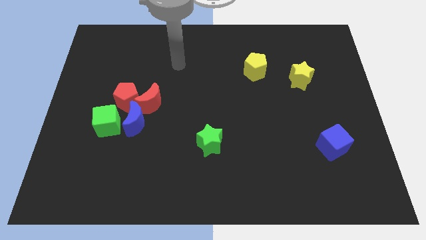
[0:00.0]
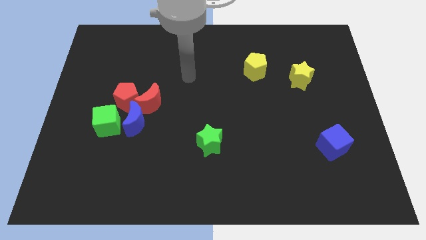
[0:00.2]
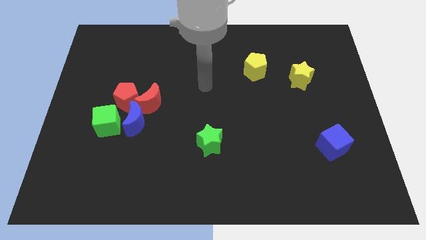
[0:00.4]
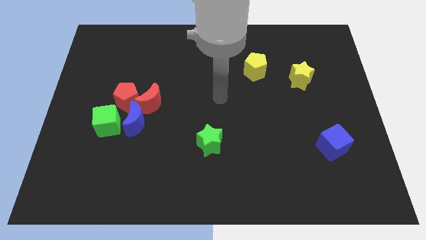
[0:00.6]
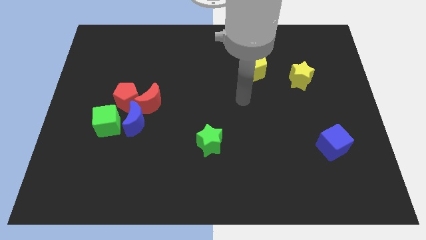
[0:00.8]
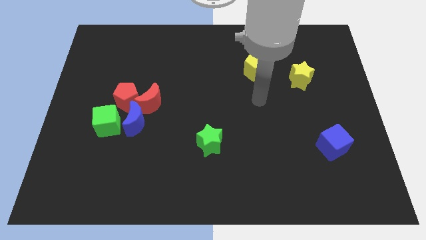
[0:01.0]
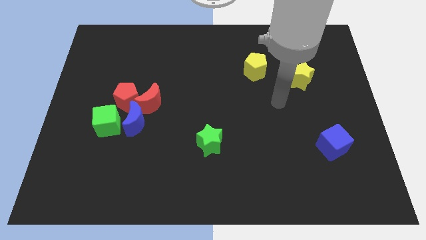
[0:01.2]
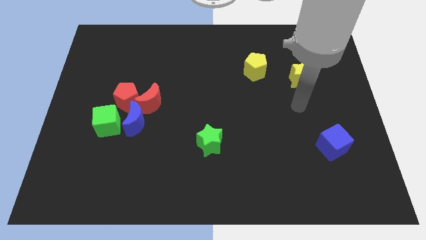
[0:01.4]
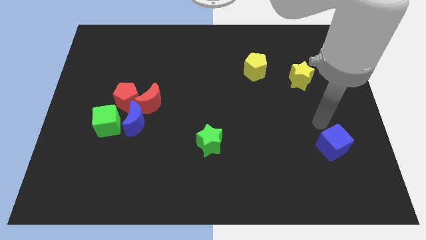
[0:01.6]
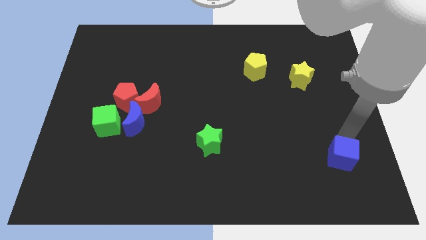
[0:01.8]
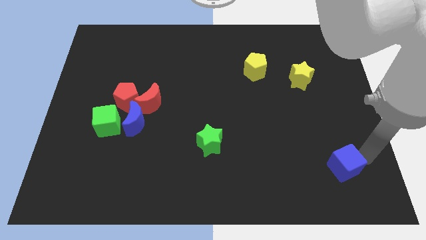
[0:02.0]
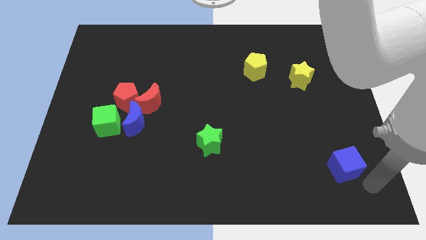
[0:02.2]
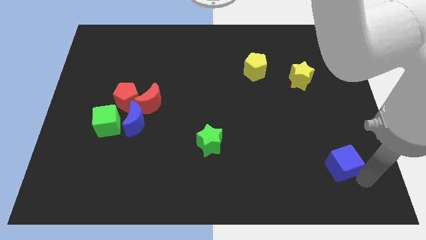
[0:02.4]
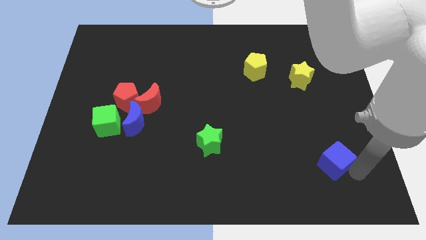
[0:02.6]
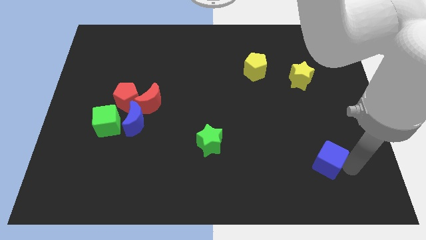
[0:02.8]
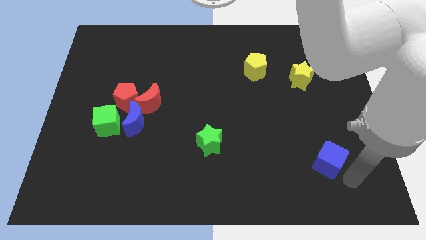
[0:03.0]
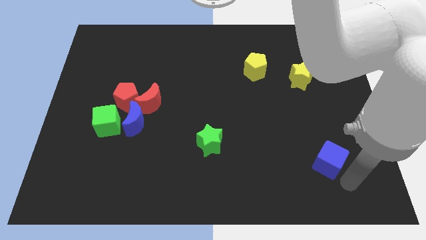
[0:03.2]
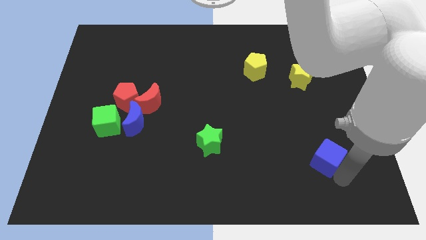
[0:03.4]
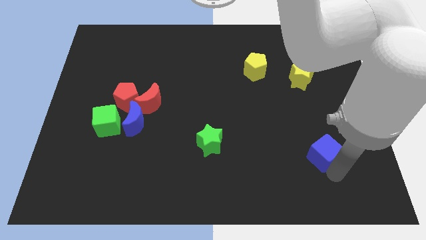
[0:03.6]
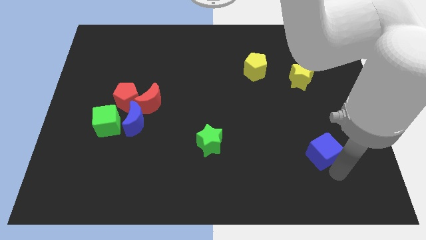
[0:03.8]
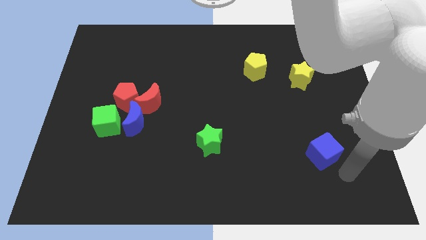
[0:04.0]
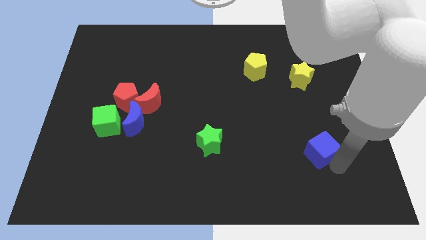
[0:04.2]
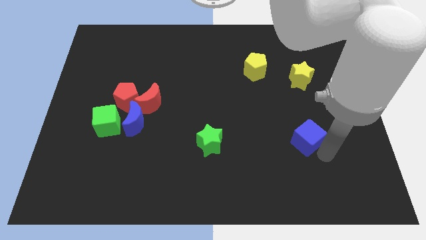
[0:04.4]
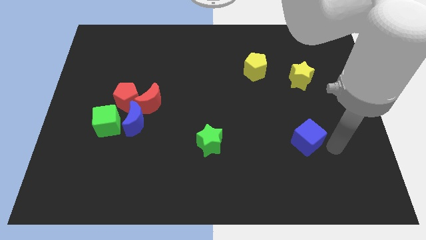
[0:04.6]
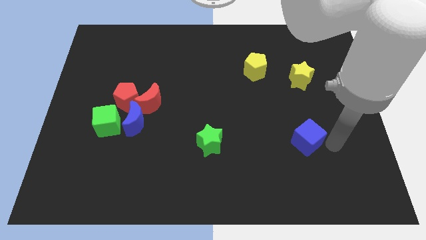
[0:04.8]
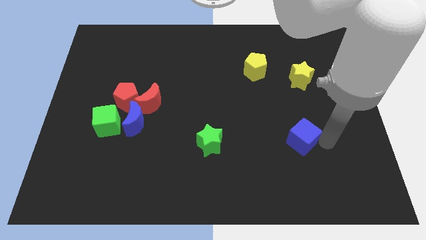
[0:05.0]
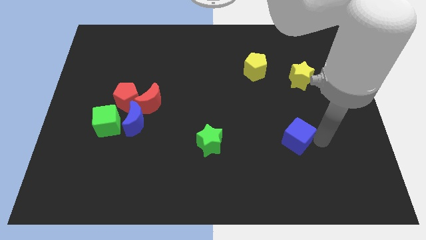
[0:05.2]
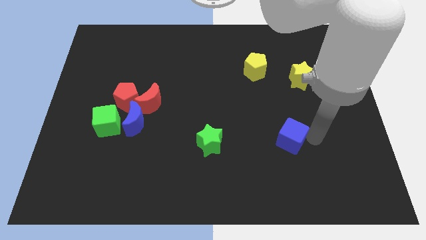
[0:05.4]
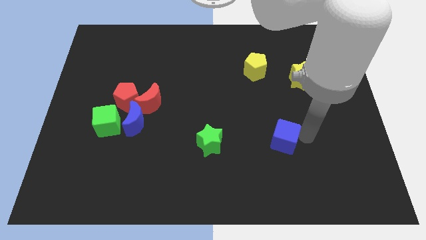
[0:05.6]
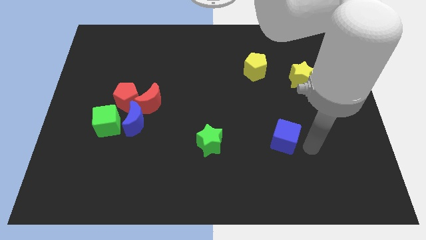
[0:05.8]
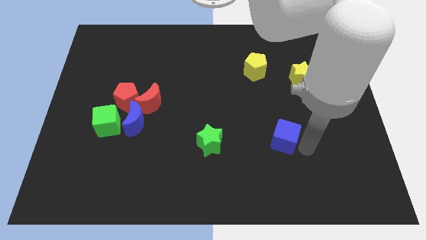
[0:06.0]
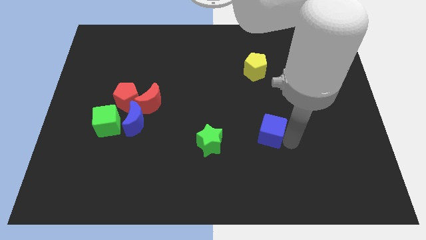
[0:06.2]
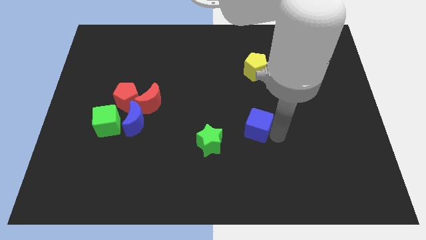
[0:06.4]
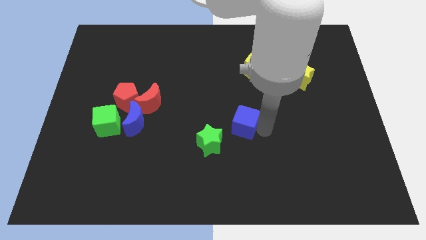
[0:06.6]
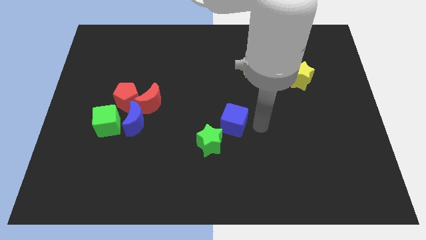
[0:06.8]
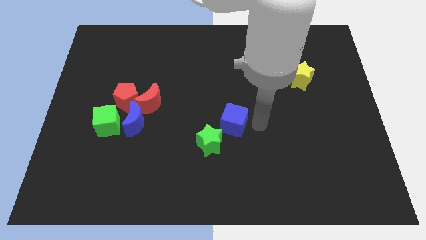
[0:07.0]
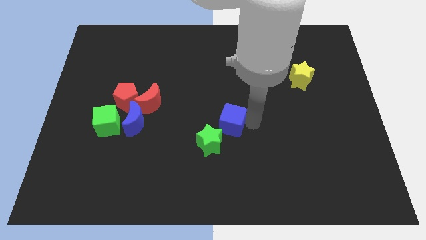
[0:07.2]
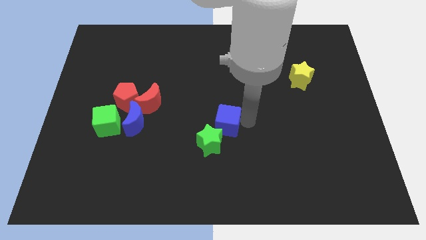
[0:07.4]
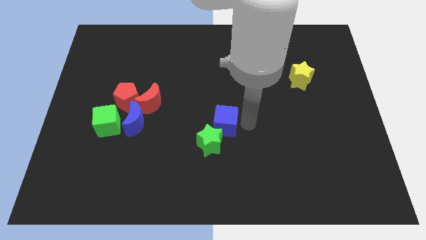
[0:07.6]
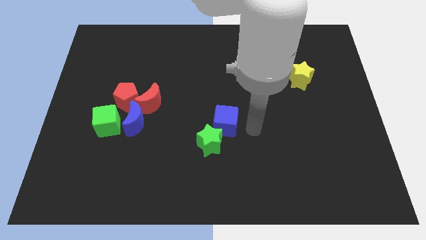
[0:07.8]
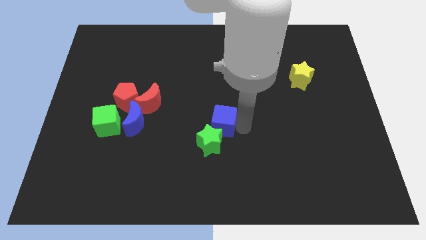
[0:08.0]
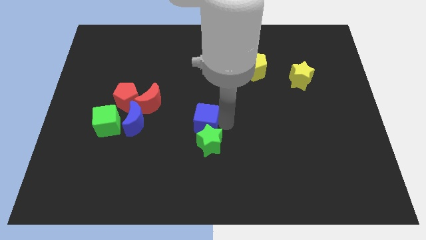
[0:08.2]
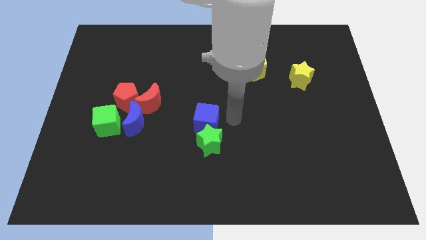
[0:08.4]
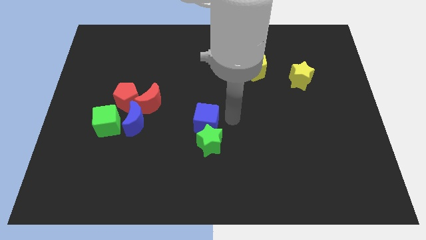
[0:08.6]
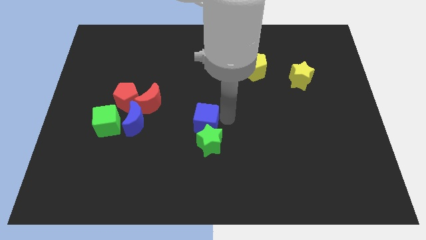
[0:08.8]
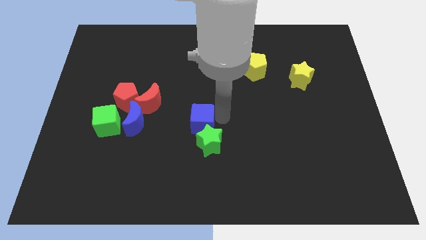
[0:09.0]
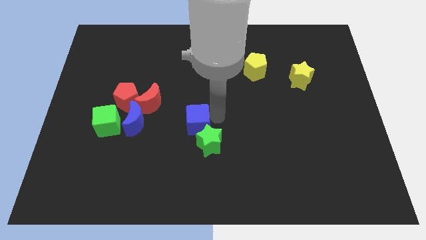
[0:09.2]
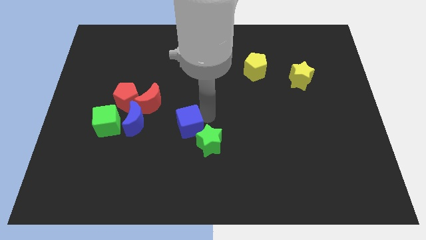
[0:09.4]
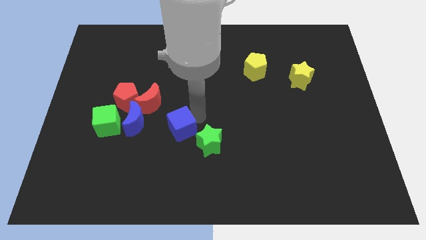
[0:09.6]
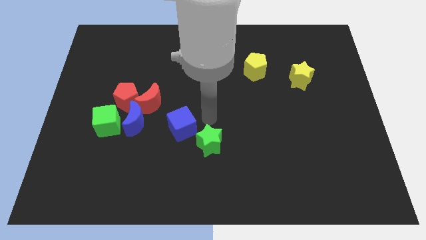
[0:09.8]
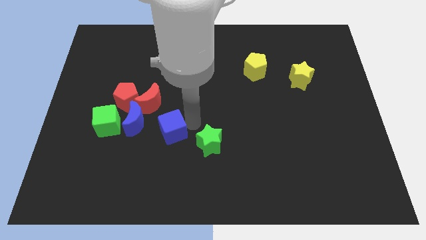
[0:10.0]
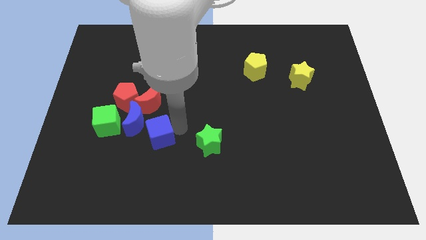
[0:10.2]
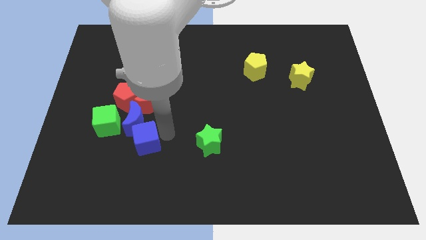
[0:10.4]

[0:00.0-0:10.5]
push the blue cube to the bottom right side of the green cube

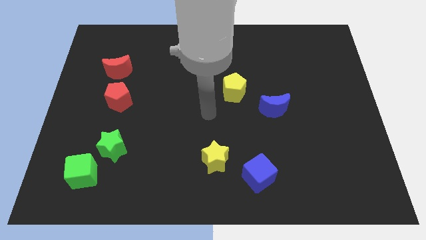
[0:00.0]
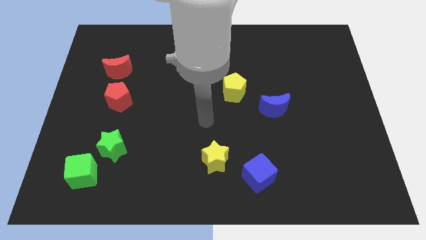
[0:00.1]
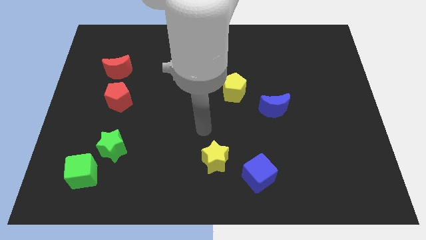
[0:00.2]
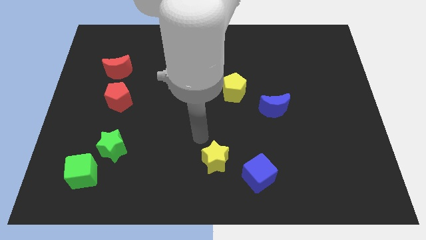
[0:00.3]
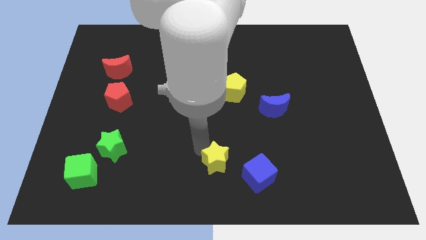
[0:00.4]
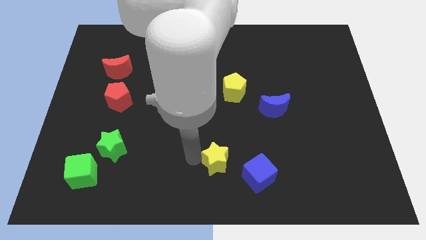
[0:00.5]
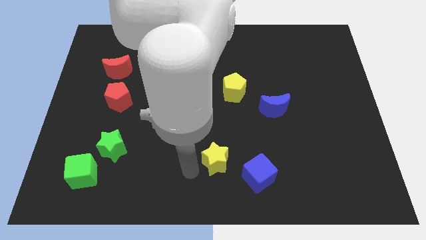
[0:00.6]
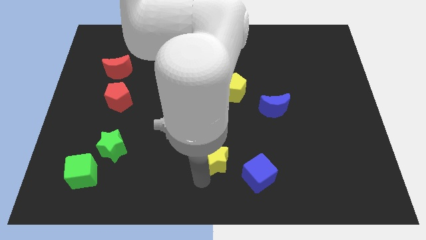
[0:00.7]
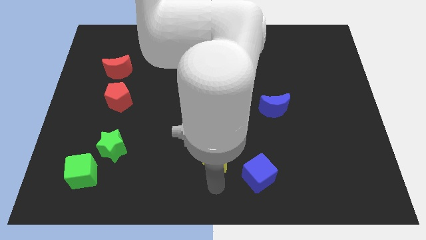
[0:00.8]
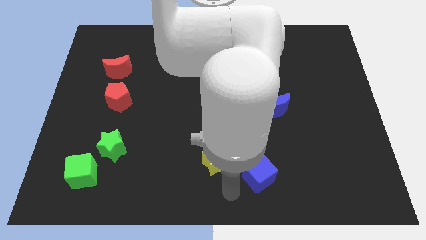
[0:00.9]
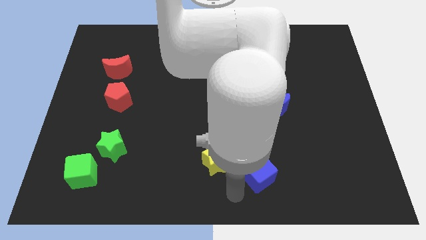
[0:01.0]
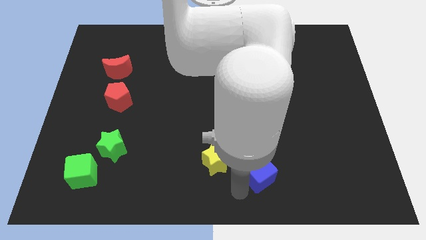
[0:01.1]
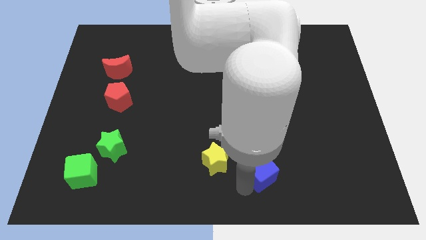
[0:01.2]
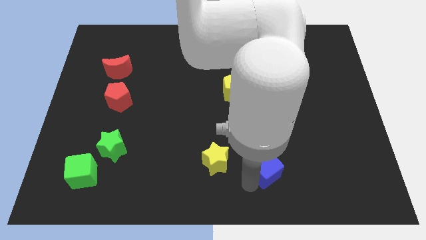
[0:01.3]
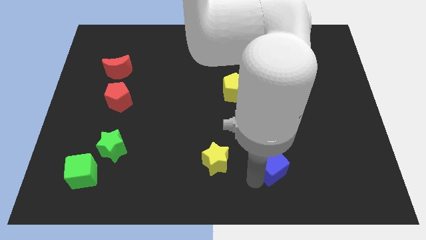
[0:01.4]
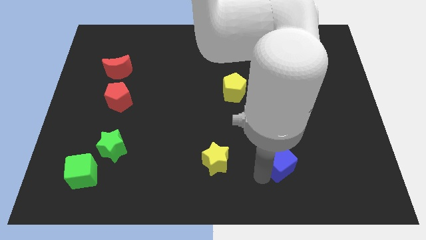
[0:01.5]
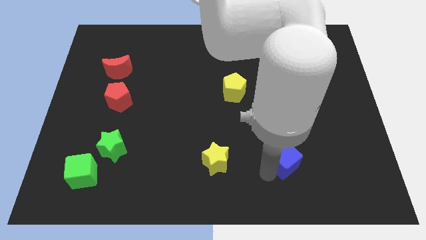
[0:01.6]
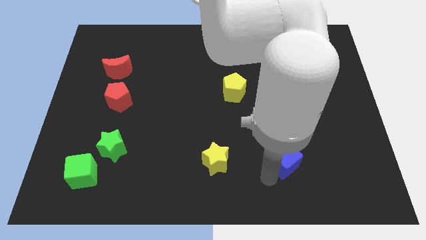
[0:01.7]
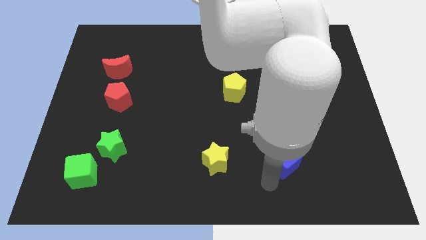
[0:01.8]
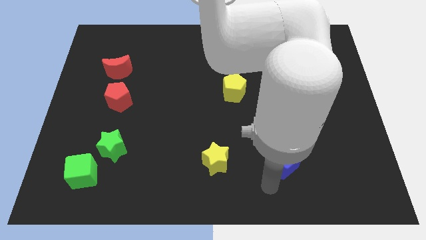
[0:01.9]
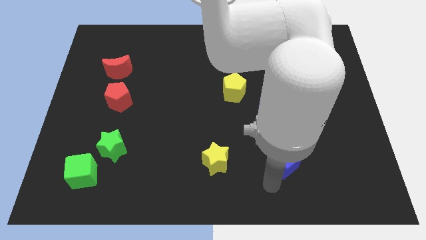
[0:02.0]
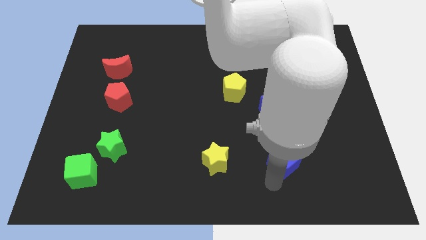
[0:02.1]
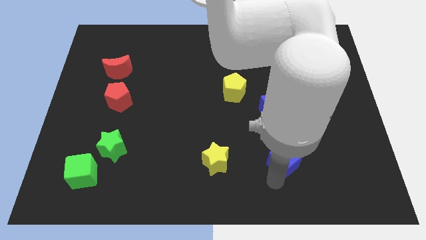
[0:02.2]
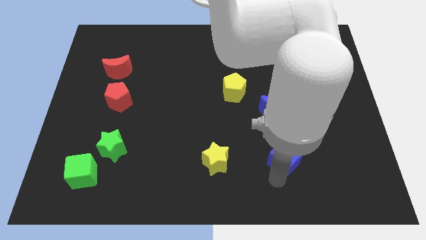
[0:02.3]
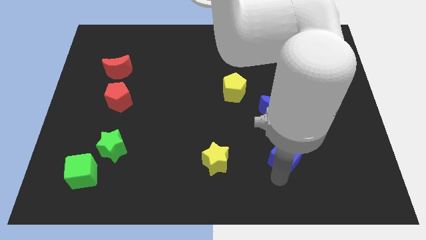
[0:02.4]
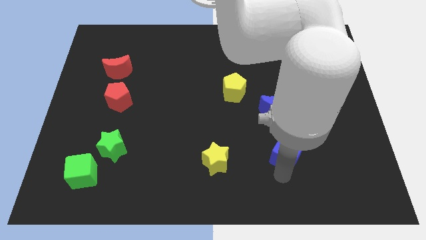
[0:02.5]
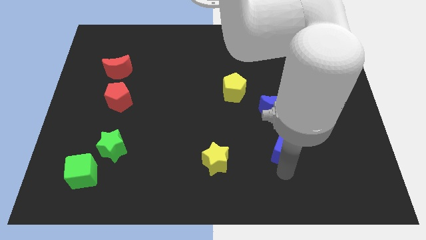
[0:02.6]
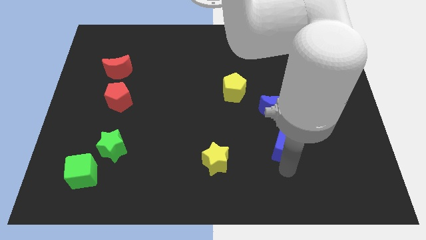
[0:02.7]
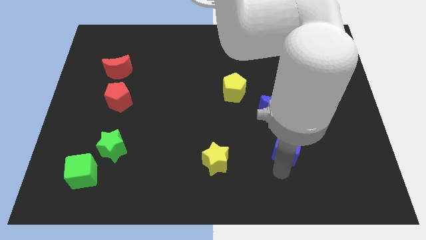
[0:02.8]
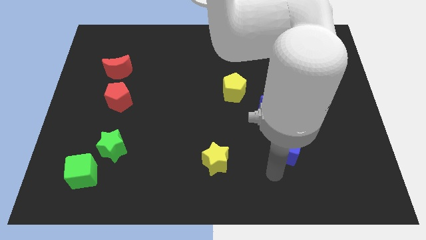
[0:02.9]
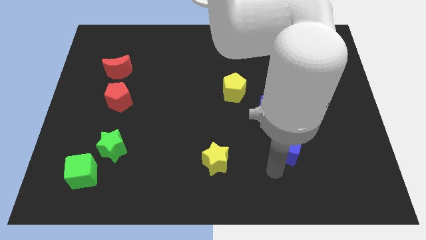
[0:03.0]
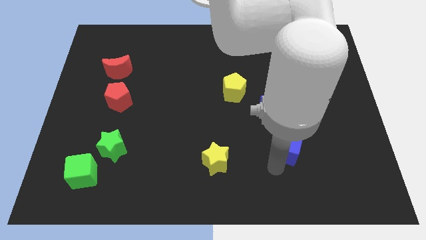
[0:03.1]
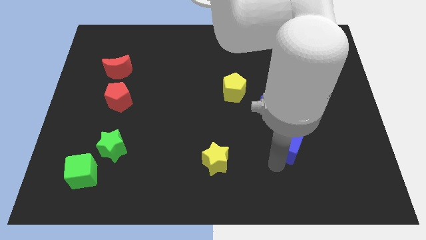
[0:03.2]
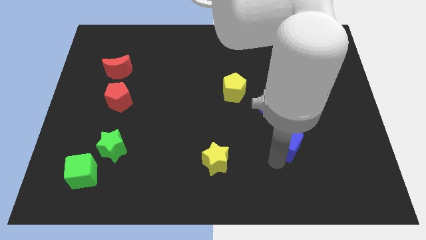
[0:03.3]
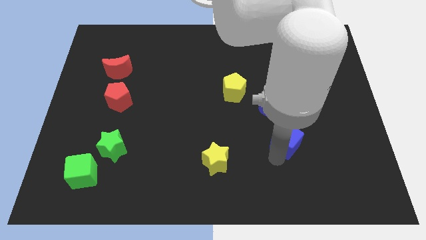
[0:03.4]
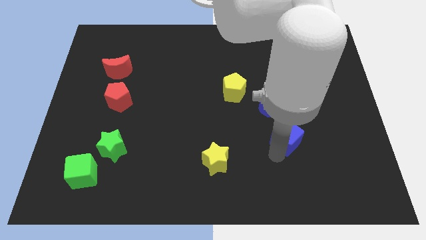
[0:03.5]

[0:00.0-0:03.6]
put the blue cube diagonally down and to the right of the blue moon
